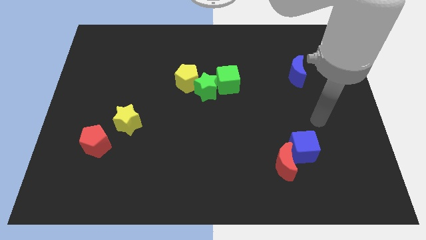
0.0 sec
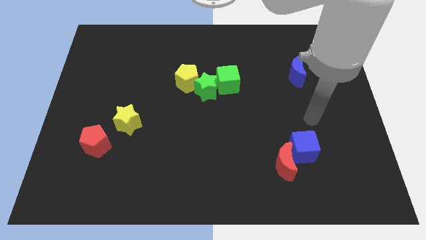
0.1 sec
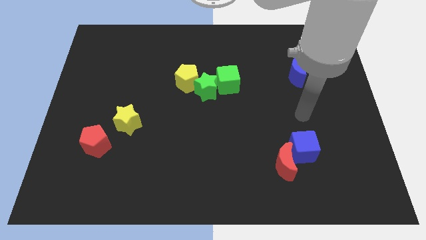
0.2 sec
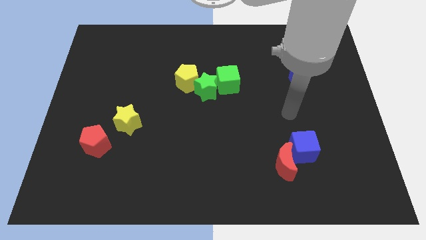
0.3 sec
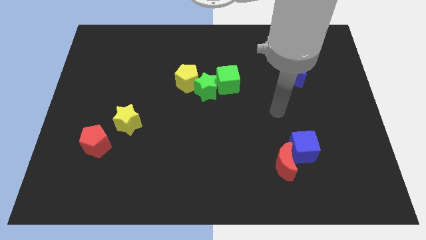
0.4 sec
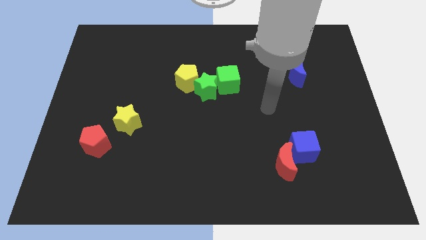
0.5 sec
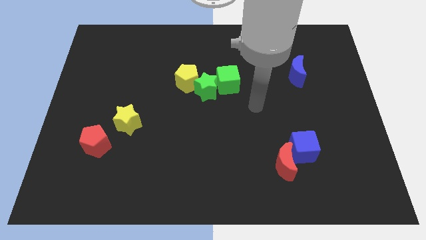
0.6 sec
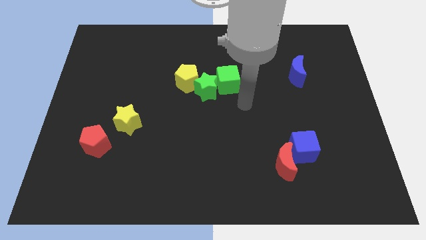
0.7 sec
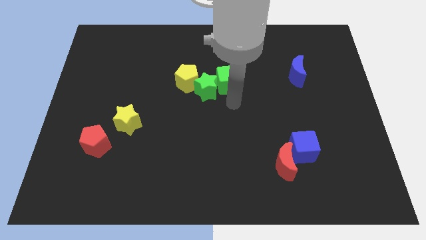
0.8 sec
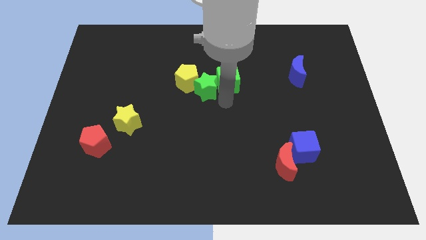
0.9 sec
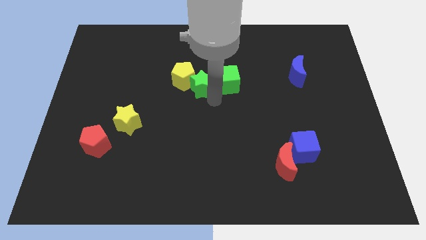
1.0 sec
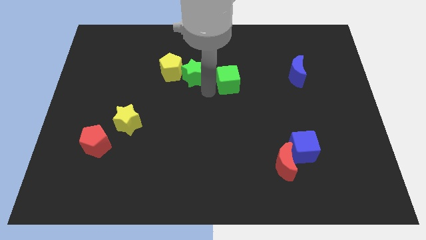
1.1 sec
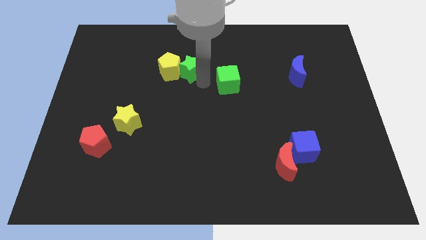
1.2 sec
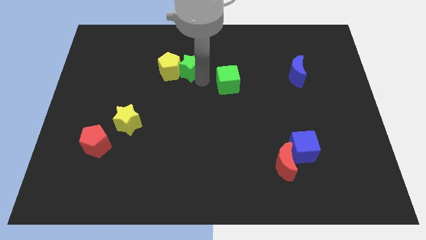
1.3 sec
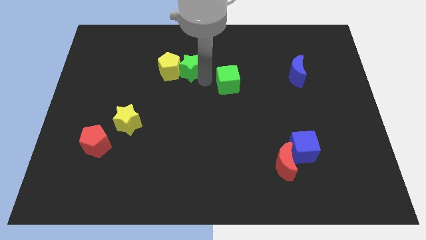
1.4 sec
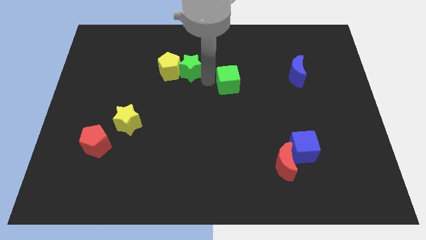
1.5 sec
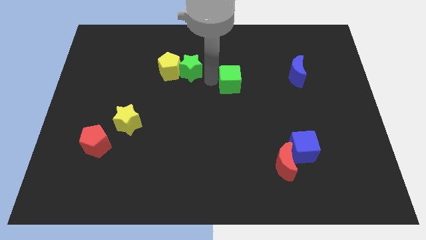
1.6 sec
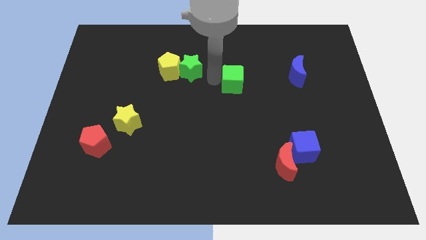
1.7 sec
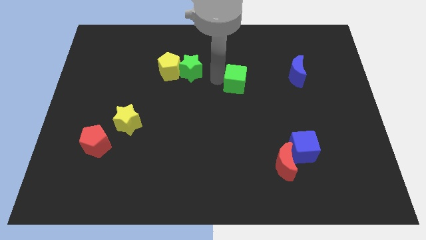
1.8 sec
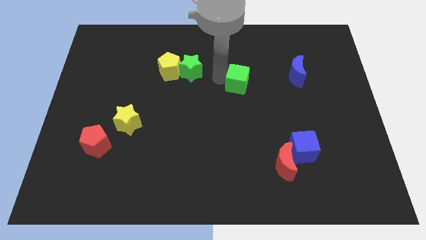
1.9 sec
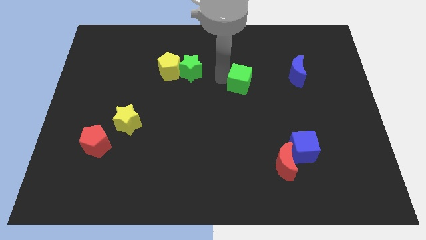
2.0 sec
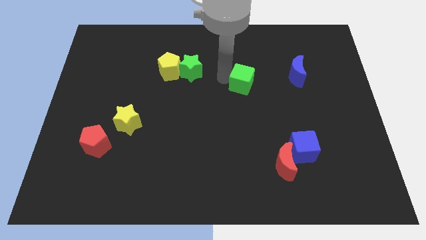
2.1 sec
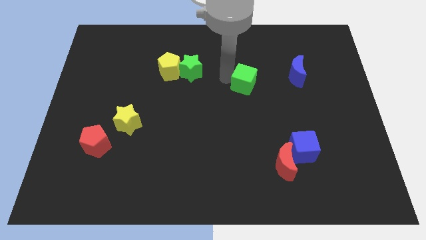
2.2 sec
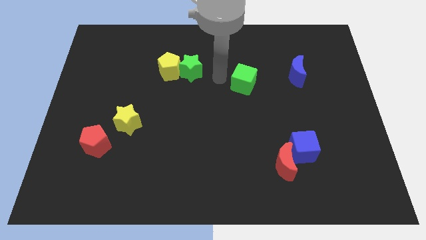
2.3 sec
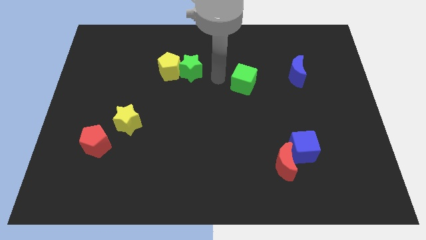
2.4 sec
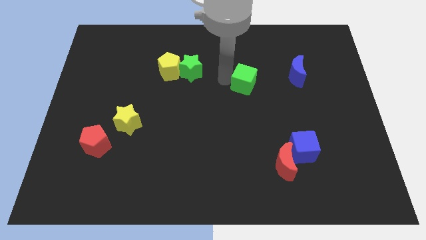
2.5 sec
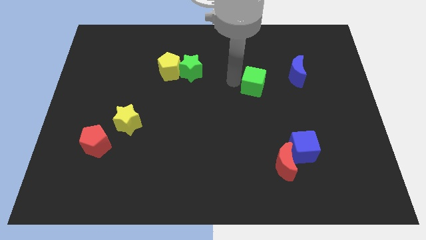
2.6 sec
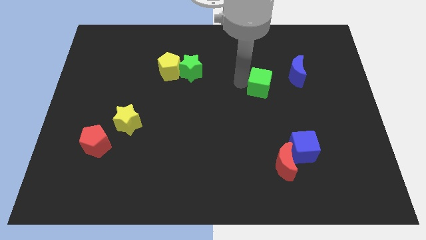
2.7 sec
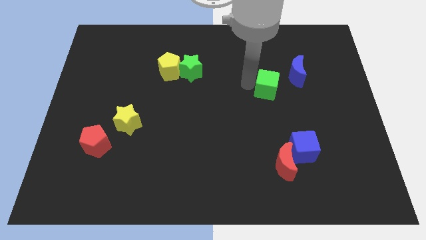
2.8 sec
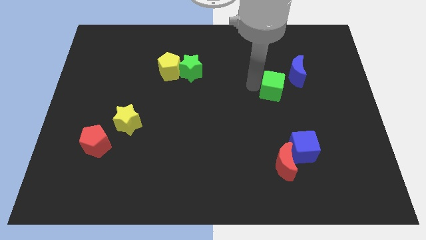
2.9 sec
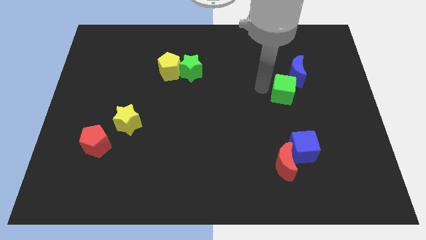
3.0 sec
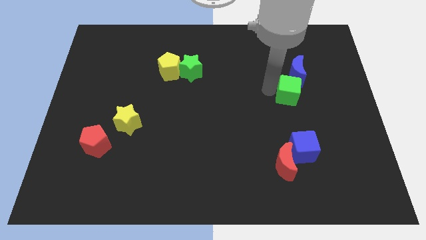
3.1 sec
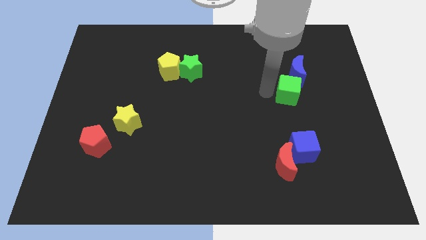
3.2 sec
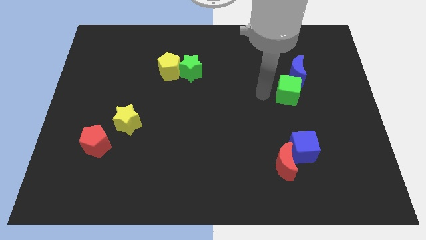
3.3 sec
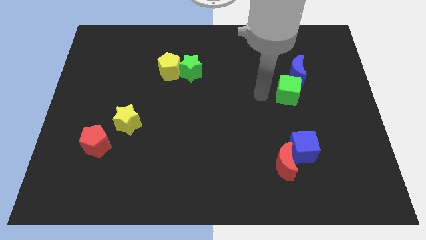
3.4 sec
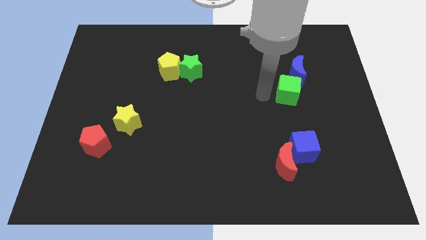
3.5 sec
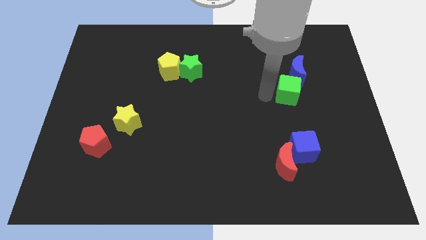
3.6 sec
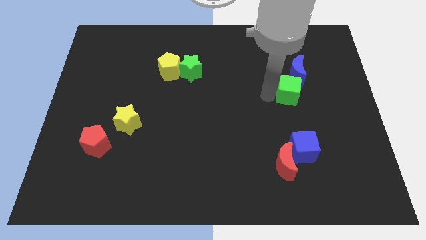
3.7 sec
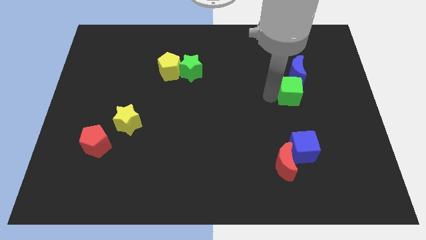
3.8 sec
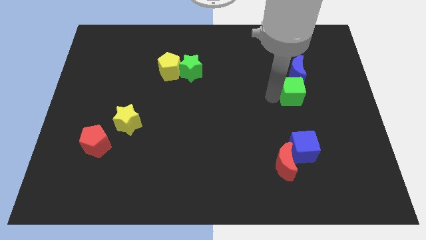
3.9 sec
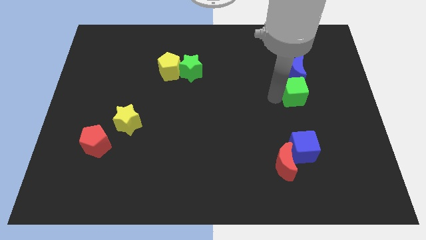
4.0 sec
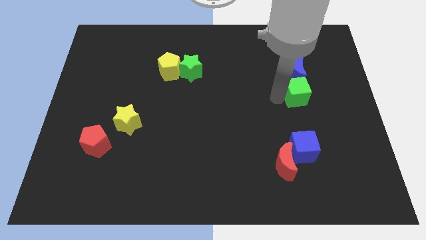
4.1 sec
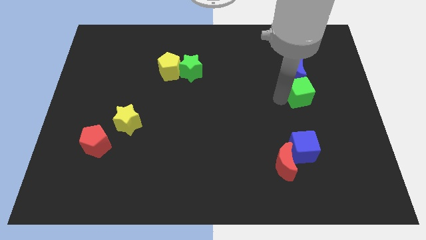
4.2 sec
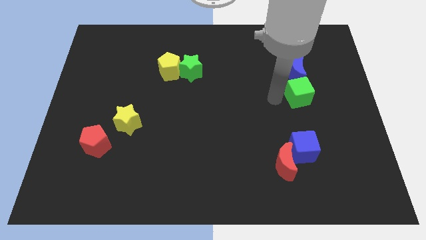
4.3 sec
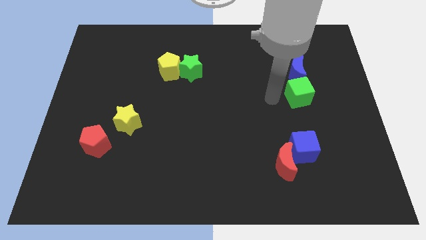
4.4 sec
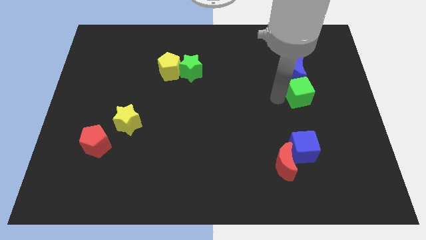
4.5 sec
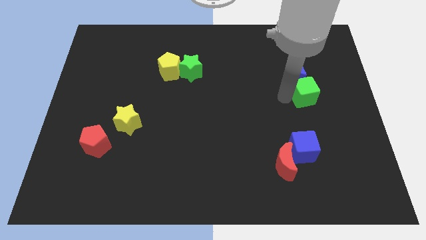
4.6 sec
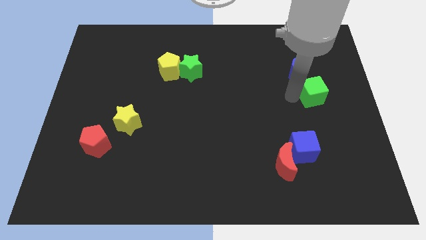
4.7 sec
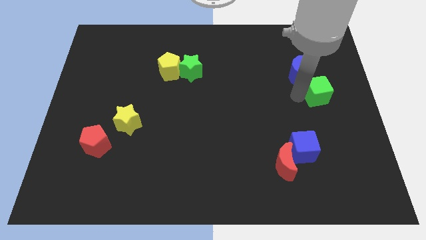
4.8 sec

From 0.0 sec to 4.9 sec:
slide the green cube to the right side
